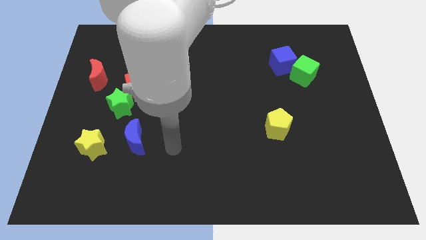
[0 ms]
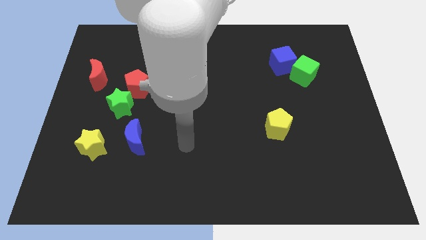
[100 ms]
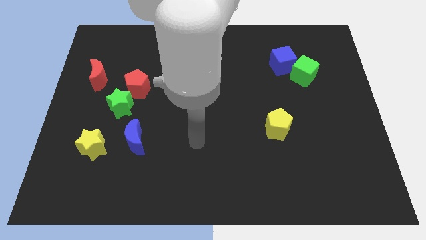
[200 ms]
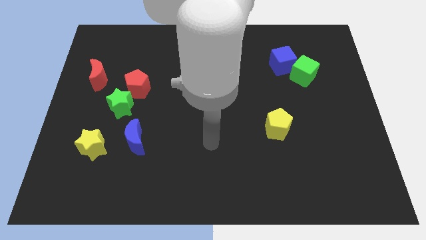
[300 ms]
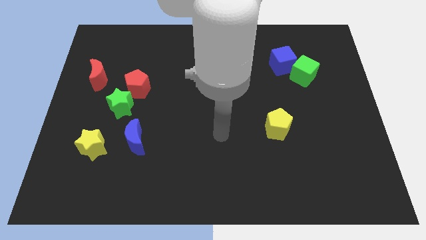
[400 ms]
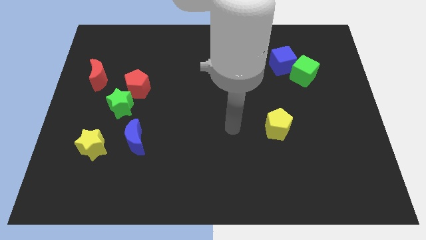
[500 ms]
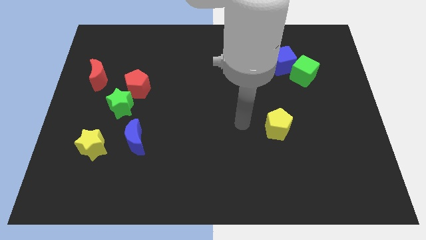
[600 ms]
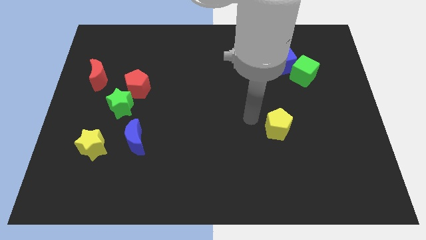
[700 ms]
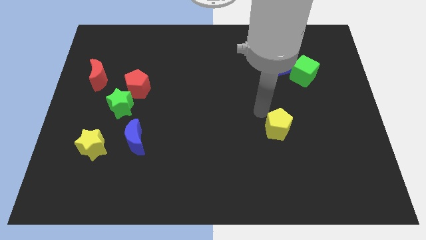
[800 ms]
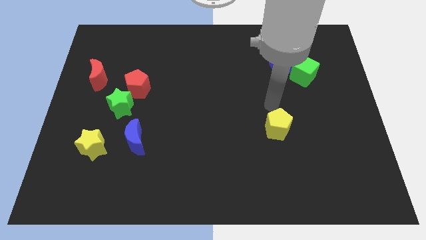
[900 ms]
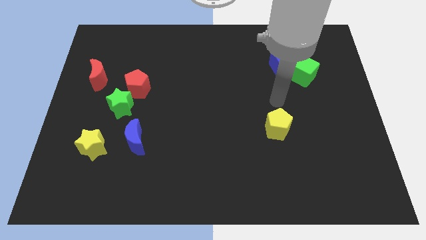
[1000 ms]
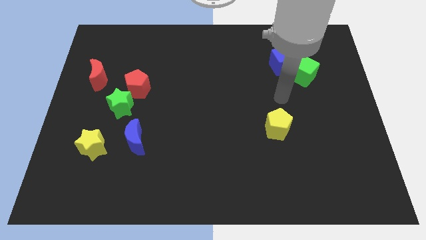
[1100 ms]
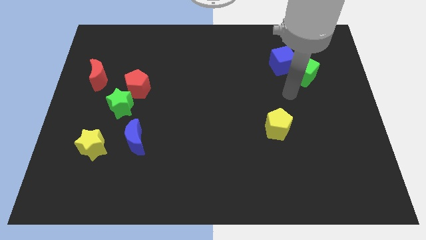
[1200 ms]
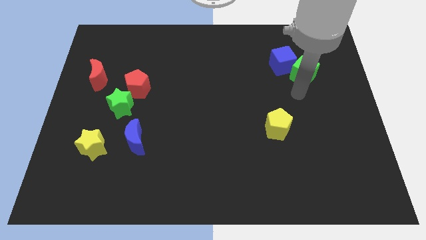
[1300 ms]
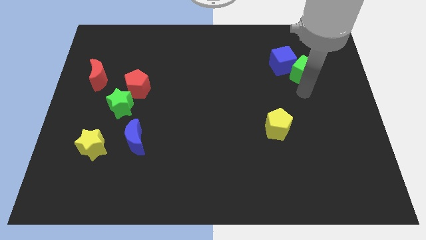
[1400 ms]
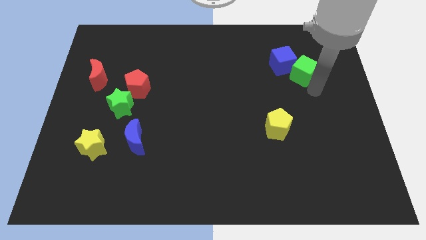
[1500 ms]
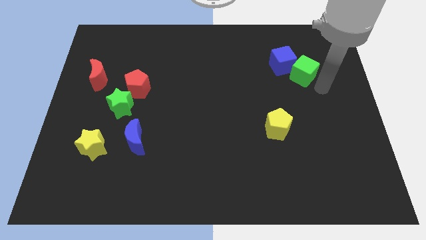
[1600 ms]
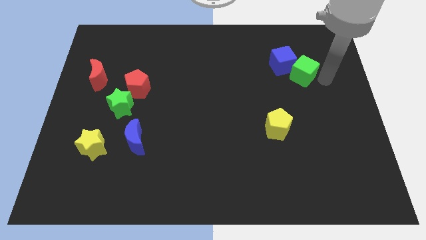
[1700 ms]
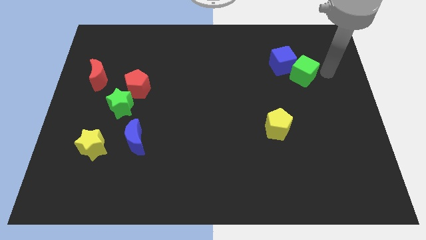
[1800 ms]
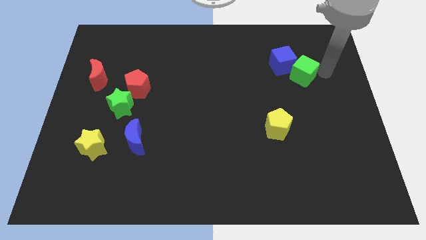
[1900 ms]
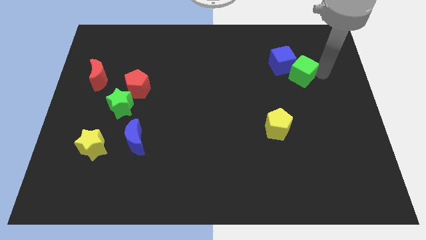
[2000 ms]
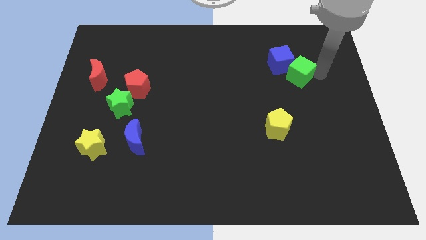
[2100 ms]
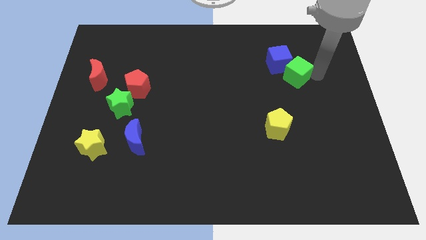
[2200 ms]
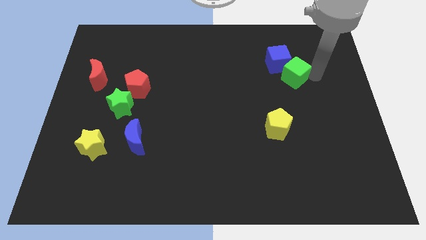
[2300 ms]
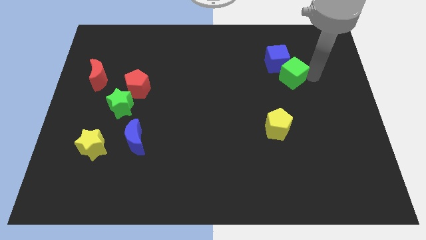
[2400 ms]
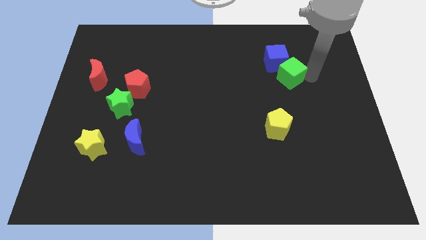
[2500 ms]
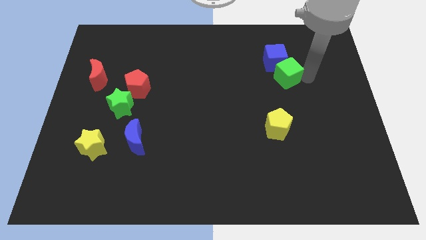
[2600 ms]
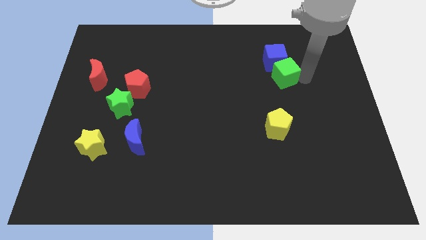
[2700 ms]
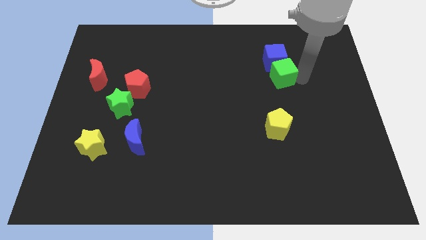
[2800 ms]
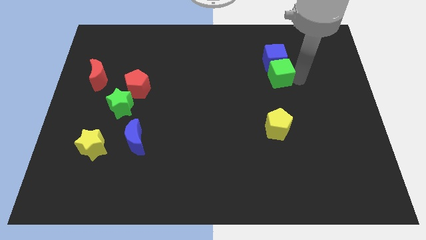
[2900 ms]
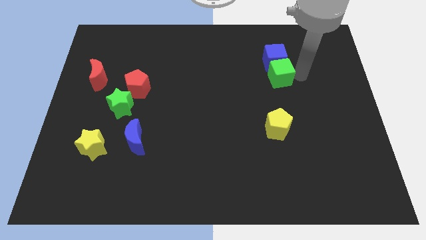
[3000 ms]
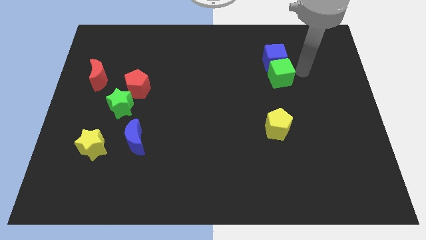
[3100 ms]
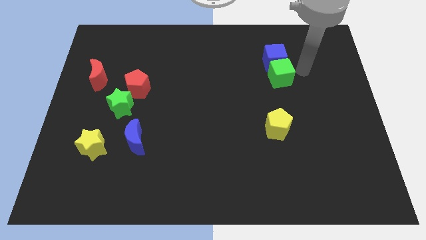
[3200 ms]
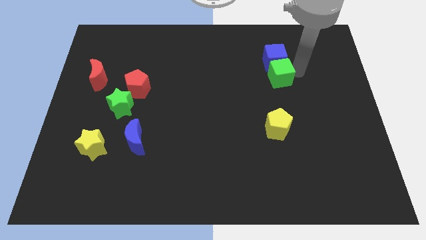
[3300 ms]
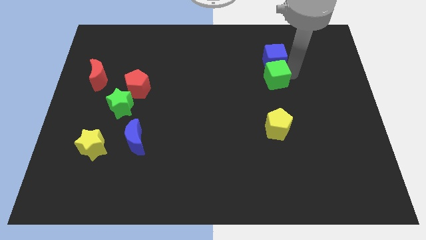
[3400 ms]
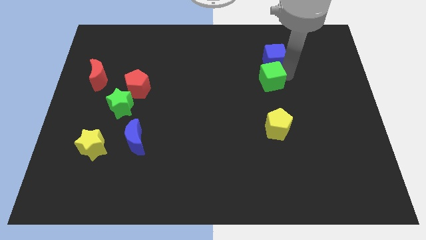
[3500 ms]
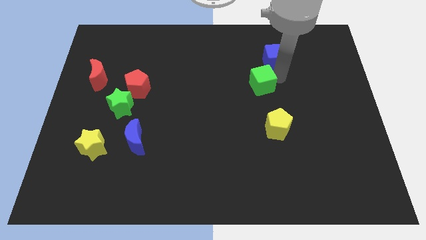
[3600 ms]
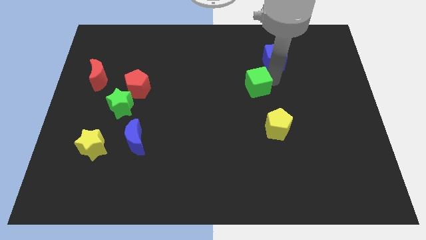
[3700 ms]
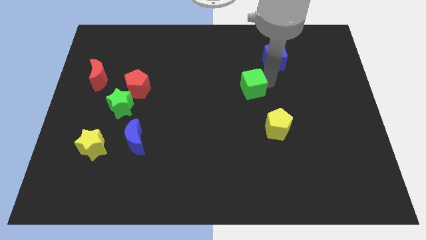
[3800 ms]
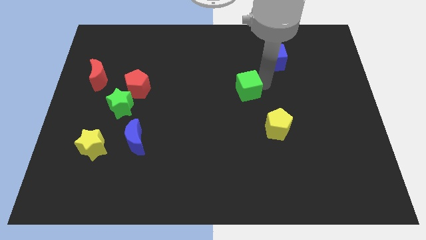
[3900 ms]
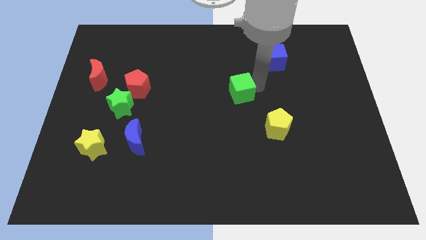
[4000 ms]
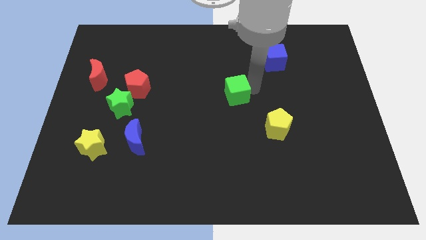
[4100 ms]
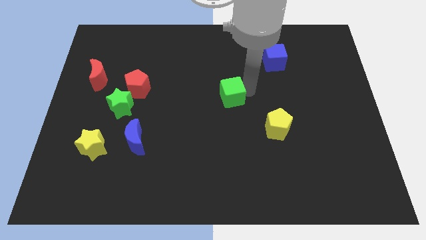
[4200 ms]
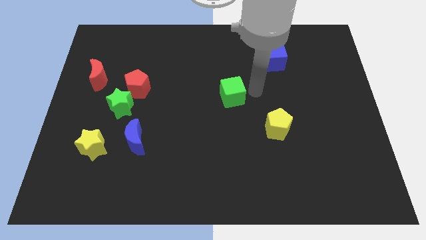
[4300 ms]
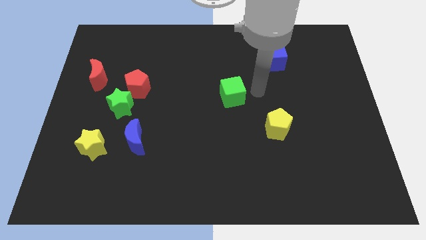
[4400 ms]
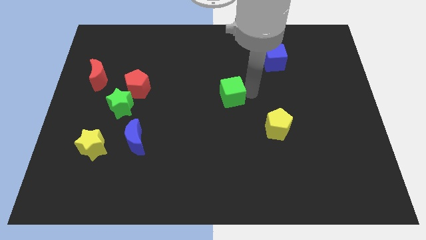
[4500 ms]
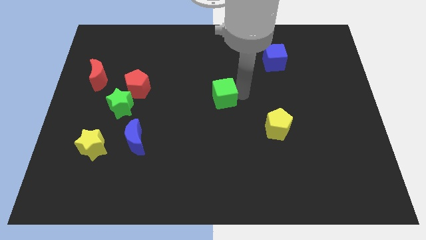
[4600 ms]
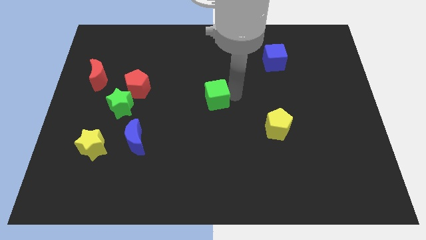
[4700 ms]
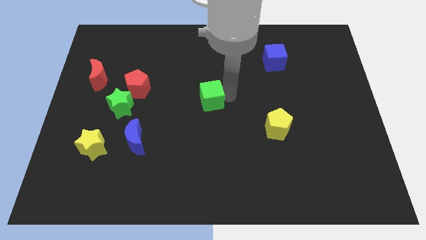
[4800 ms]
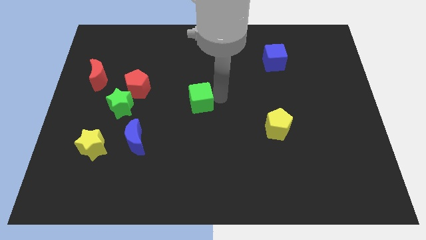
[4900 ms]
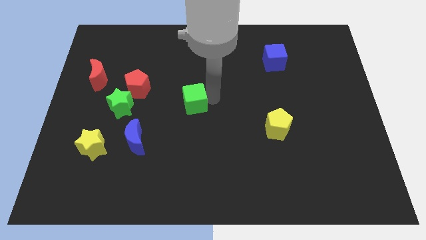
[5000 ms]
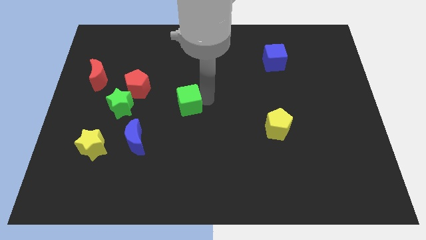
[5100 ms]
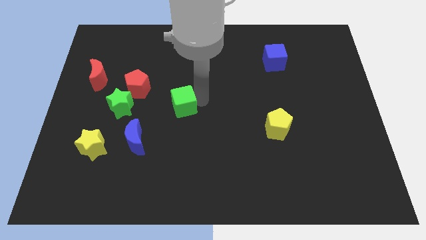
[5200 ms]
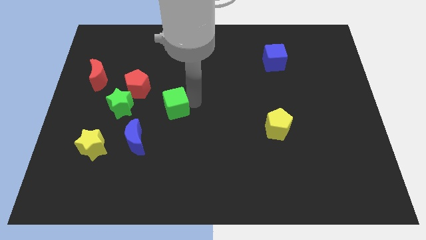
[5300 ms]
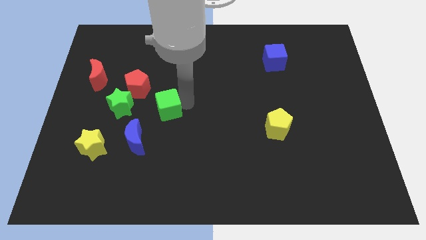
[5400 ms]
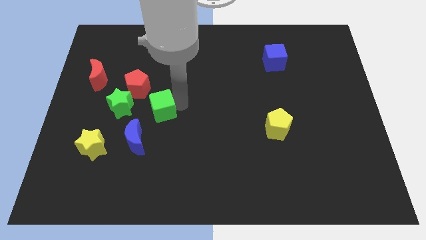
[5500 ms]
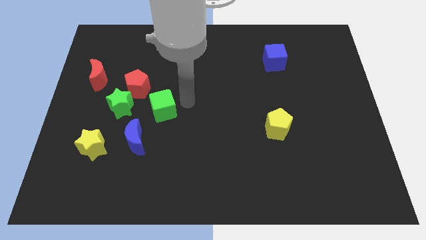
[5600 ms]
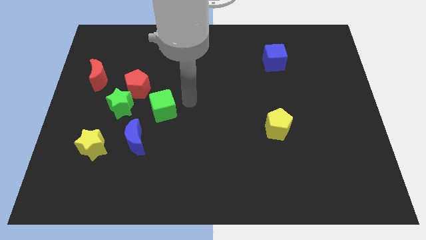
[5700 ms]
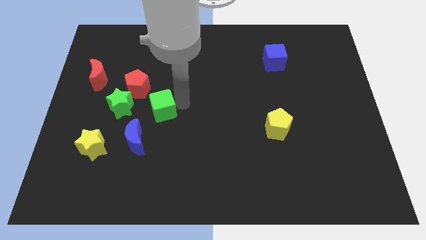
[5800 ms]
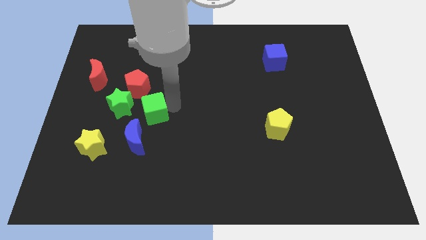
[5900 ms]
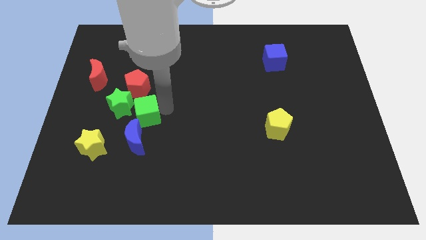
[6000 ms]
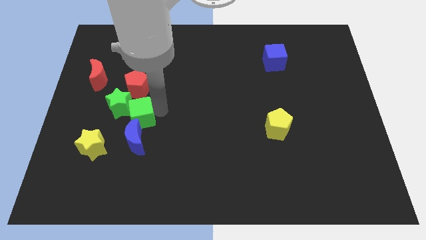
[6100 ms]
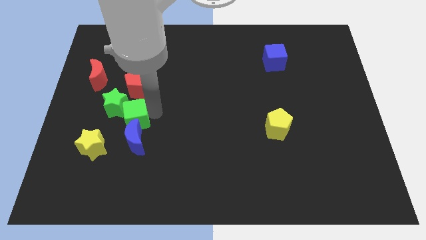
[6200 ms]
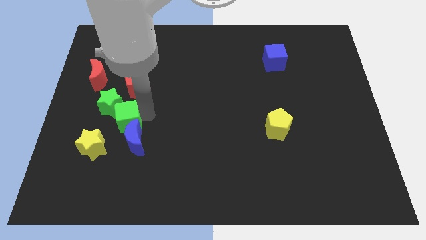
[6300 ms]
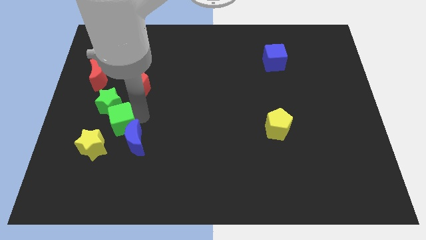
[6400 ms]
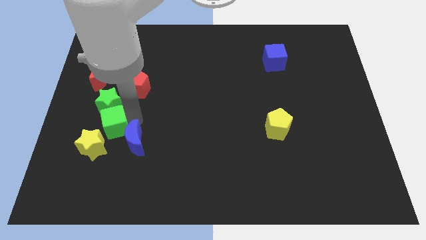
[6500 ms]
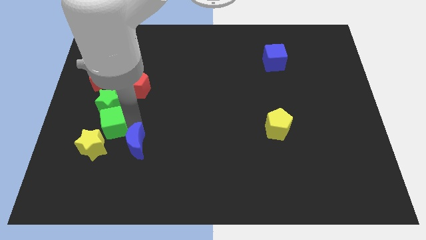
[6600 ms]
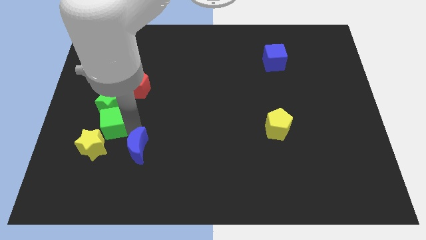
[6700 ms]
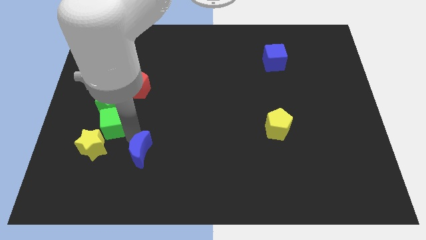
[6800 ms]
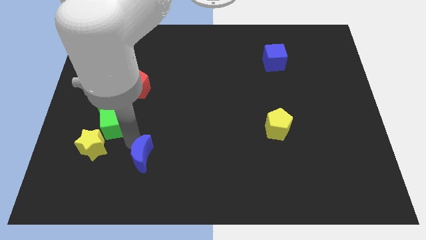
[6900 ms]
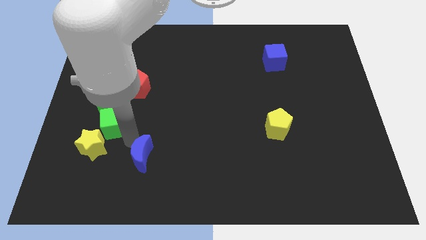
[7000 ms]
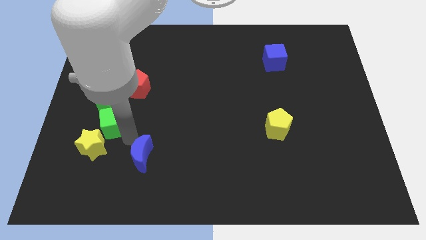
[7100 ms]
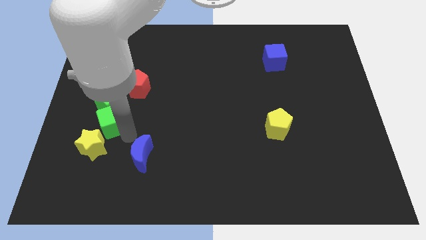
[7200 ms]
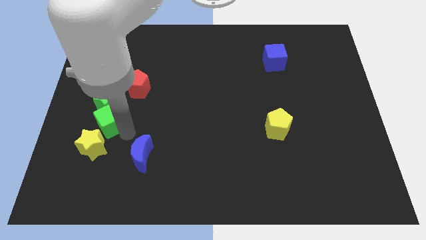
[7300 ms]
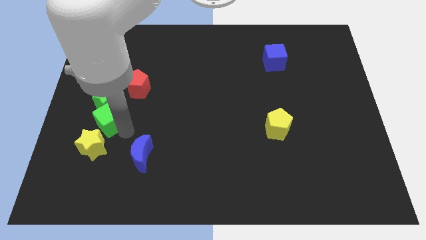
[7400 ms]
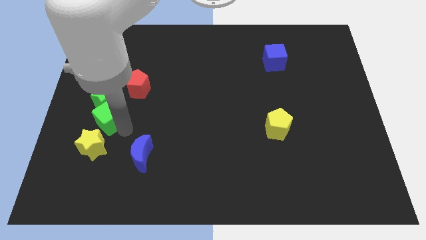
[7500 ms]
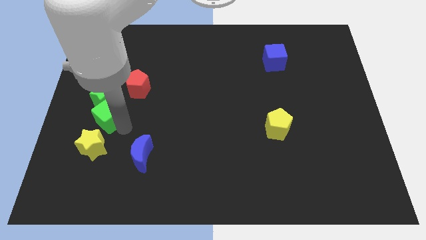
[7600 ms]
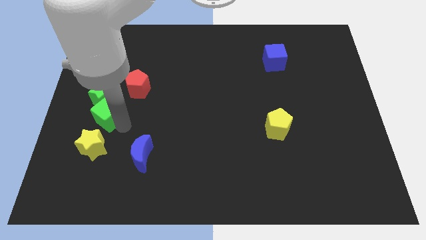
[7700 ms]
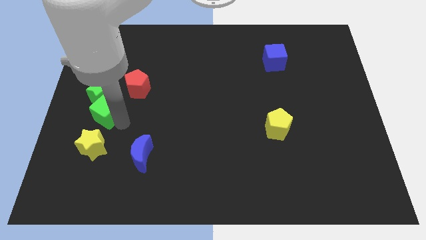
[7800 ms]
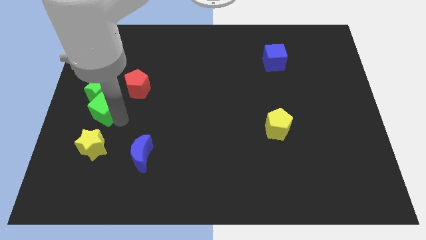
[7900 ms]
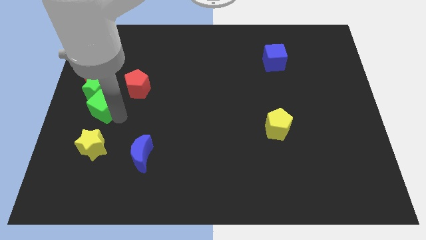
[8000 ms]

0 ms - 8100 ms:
put the green cube to the center left
